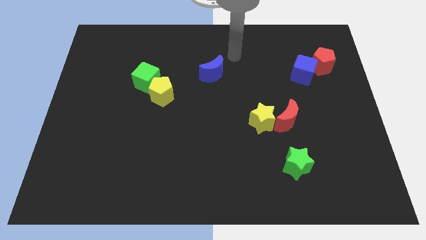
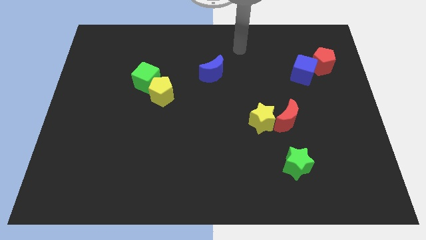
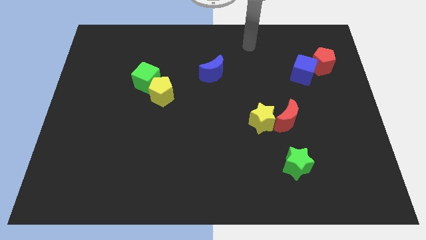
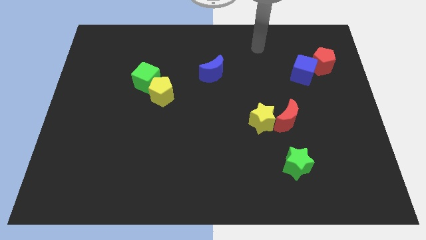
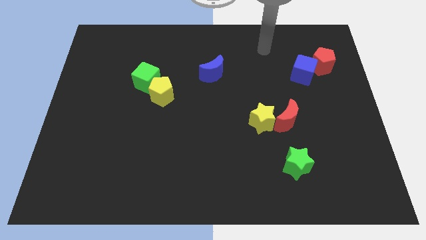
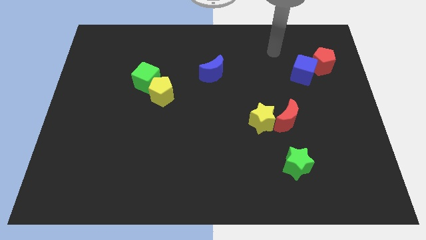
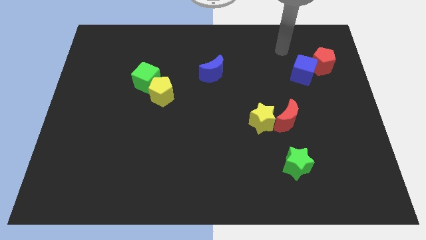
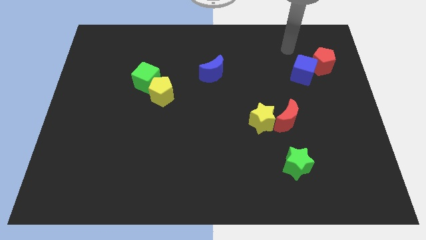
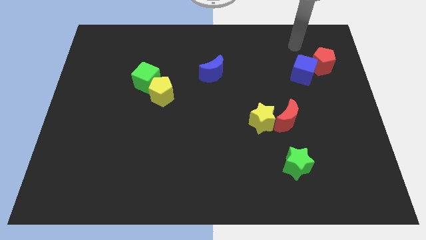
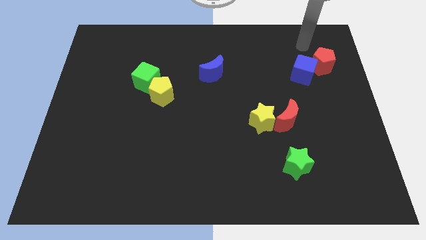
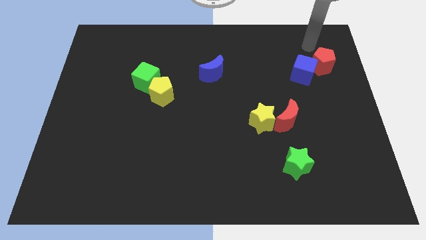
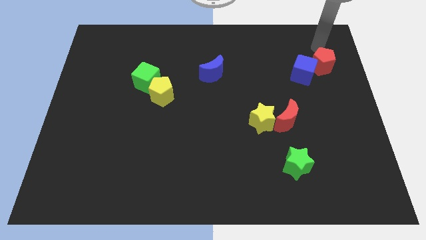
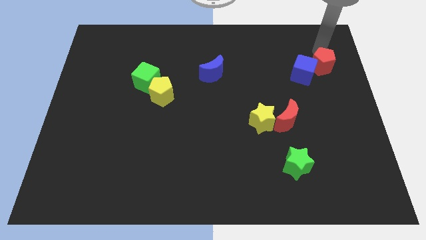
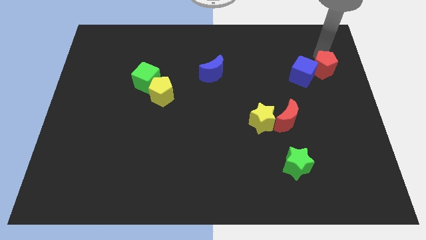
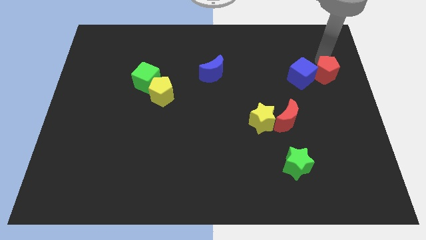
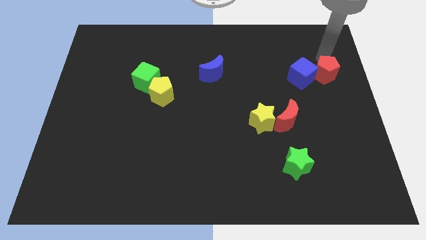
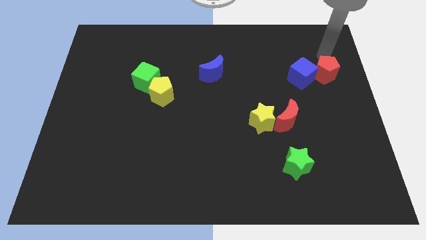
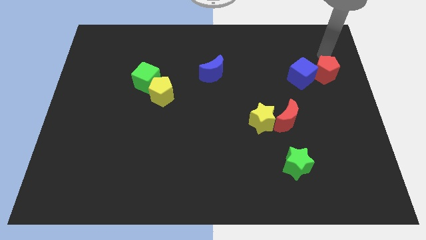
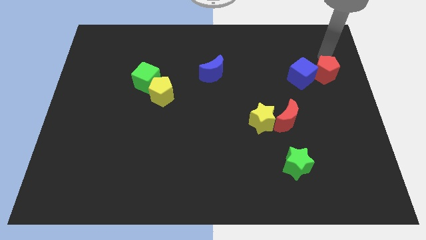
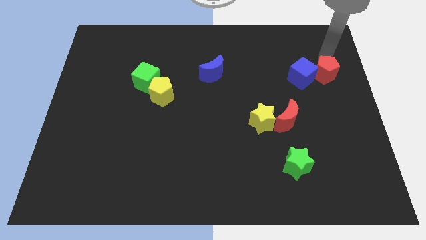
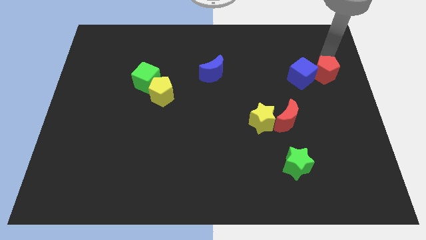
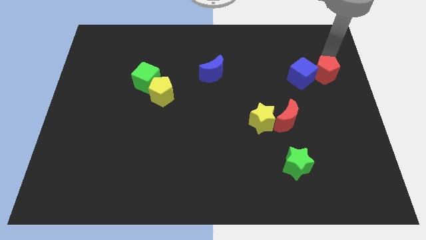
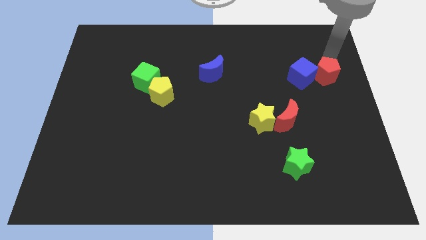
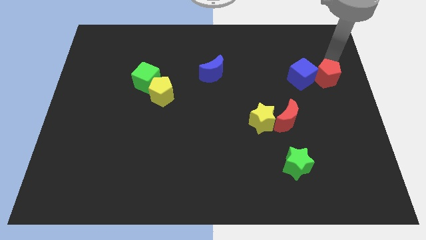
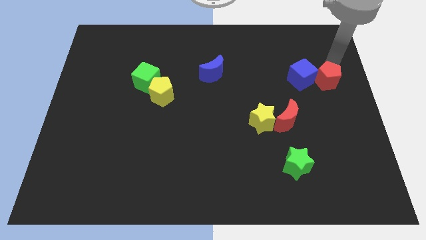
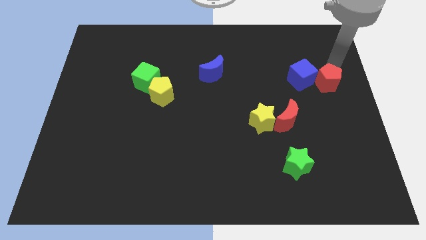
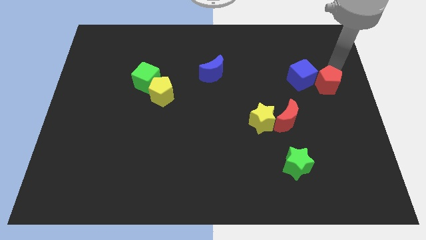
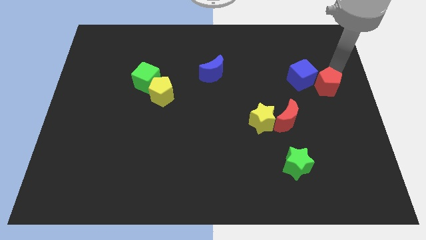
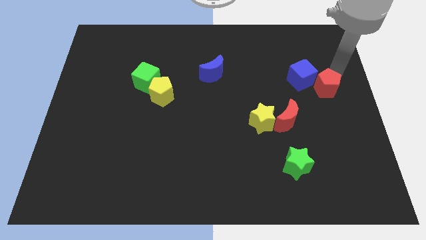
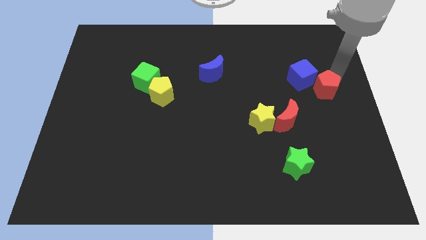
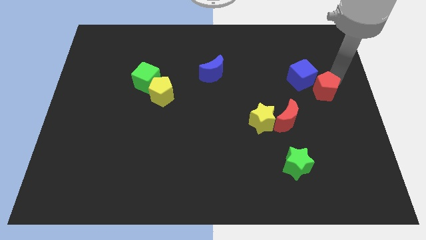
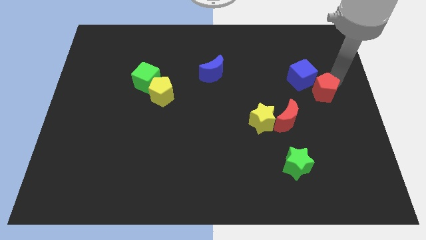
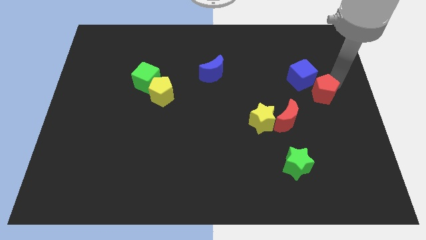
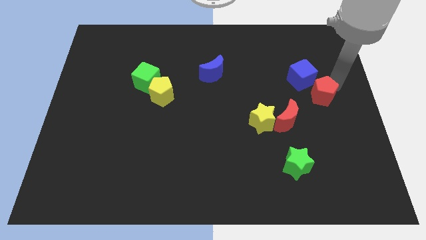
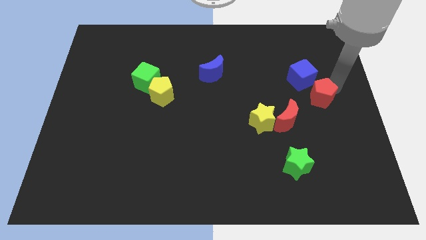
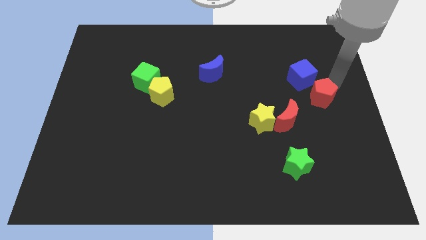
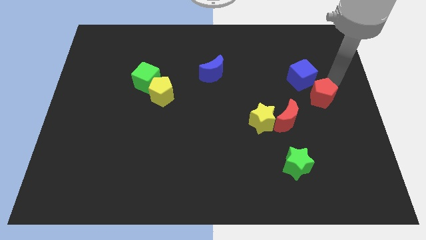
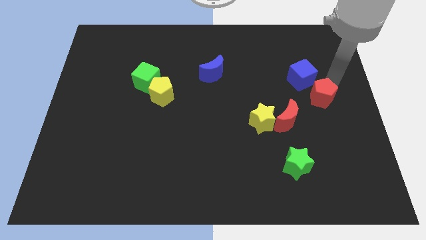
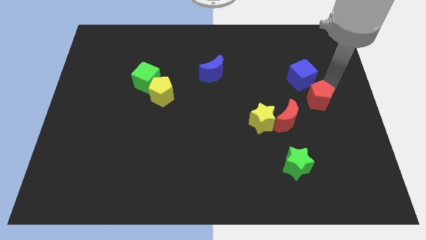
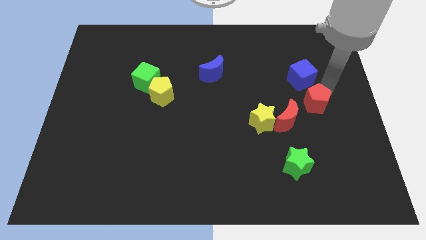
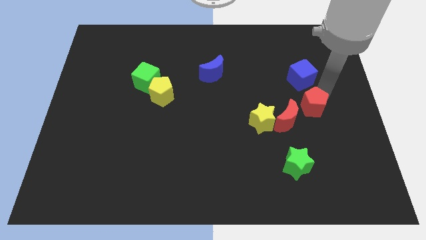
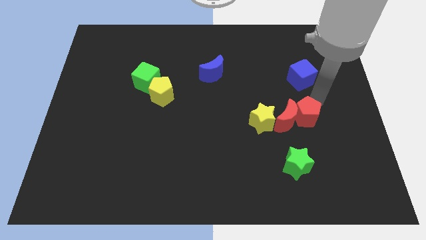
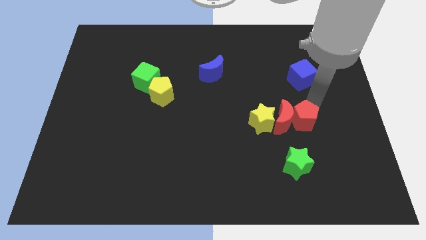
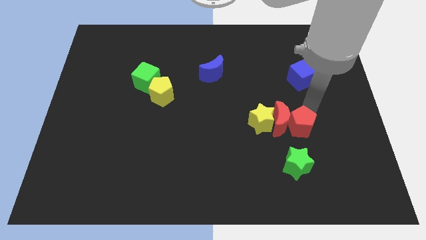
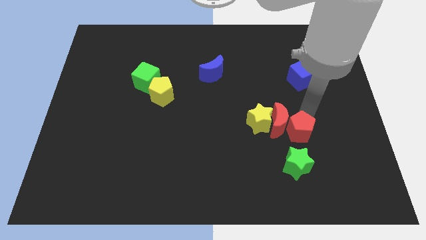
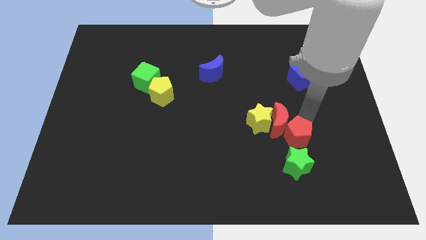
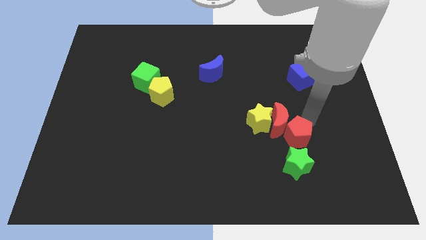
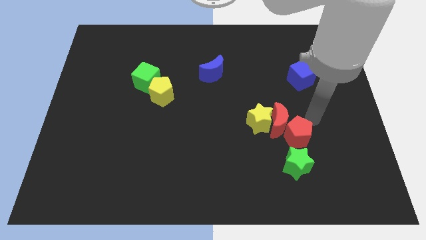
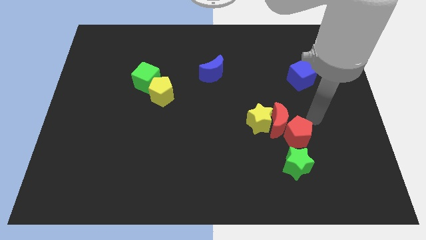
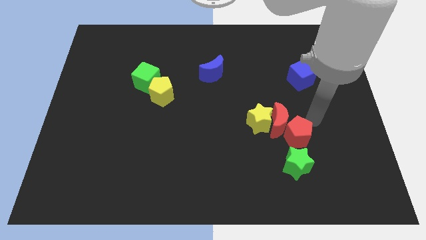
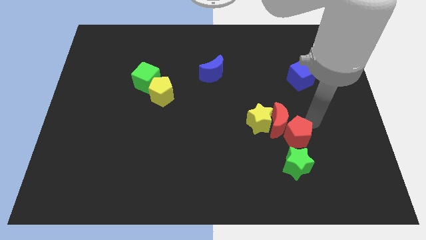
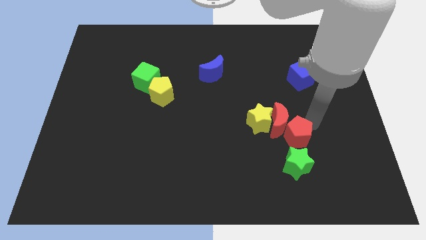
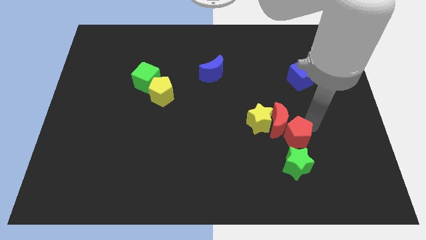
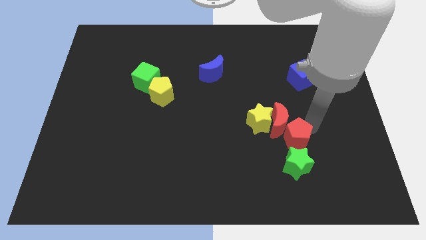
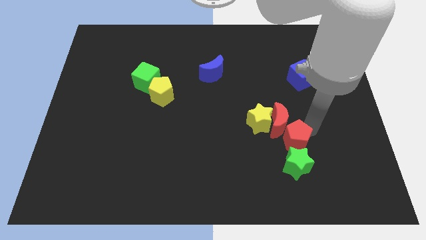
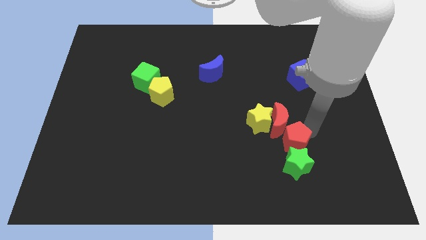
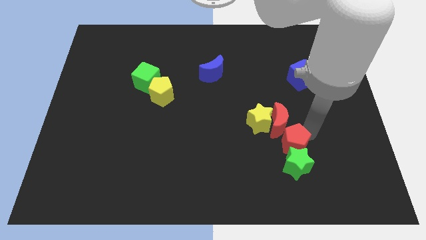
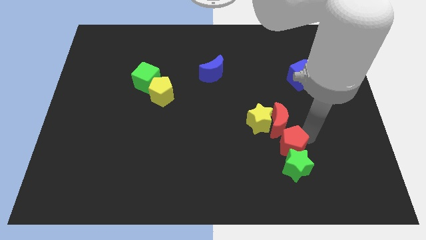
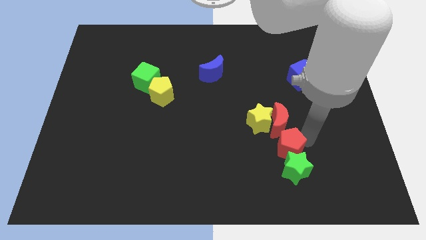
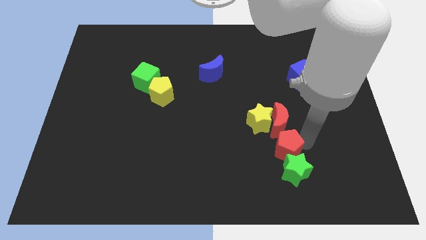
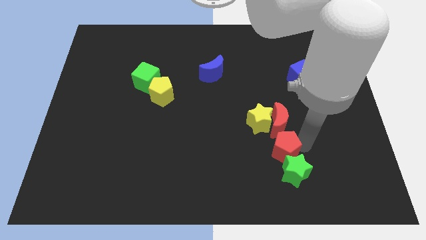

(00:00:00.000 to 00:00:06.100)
push the red pentagon to the bottom side of the yellow star

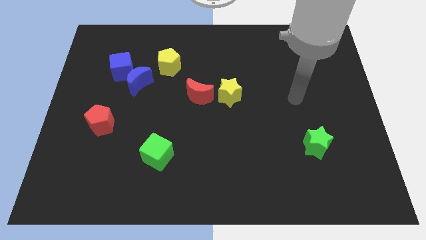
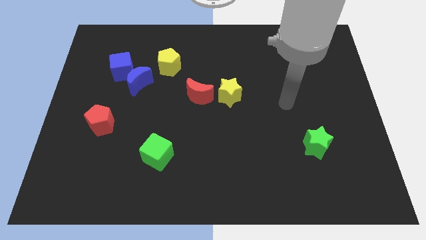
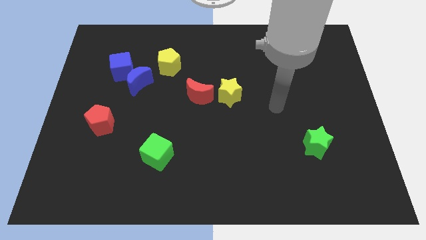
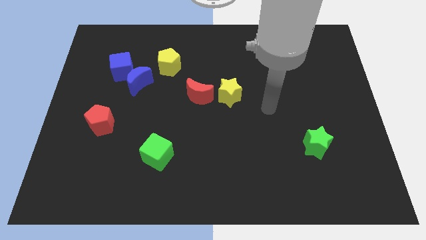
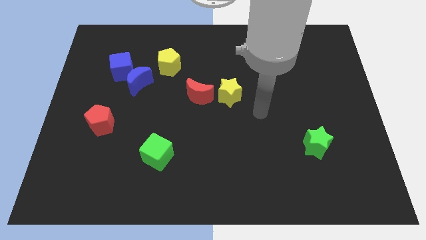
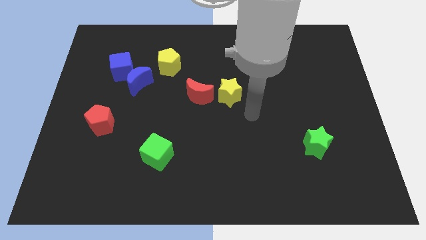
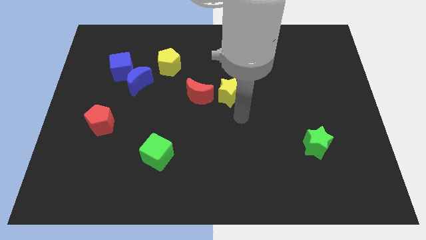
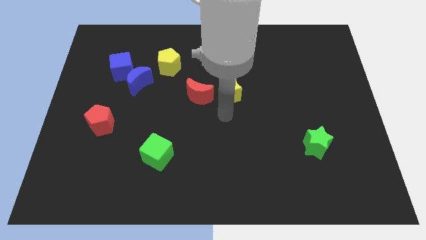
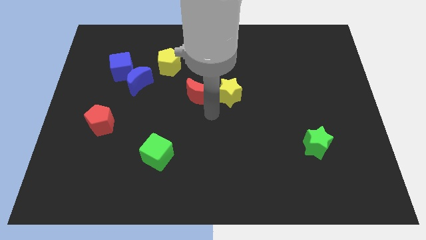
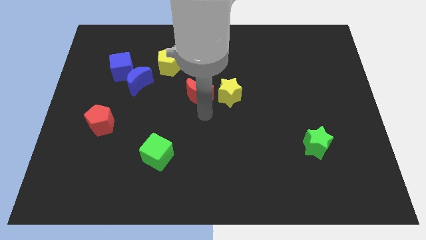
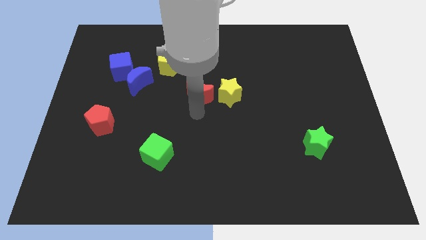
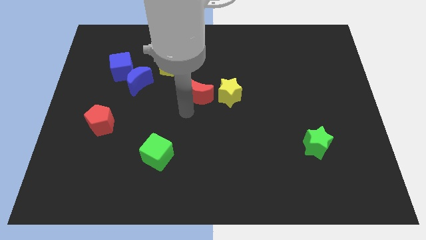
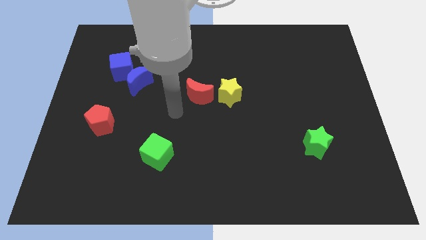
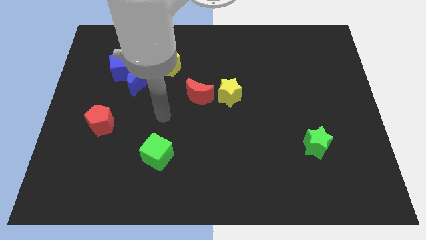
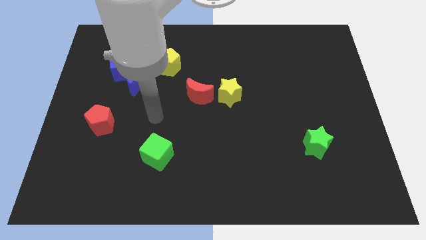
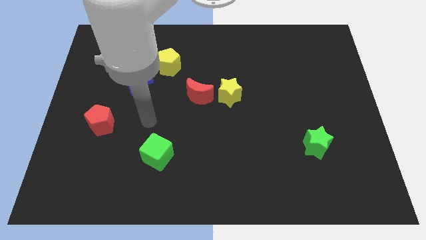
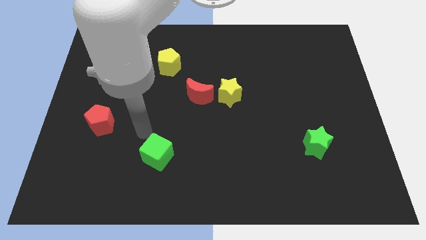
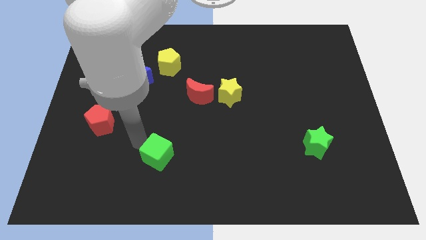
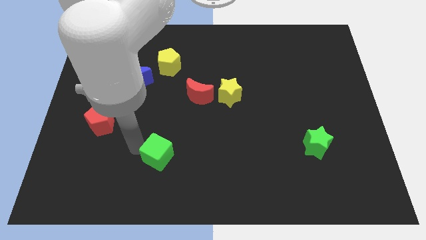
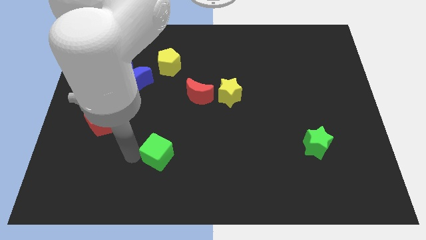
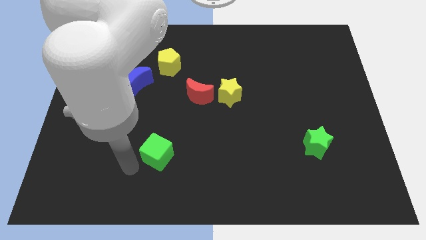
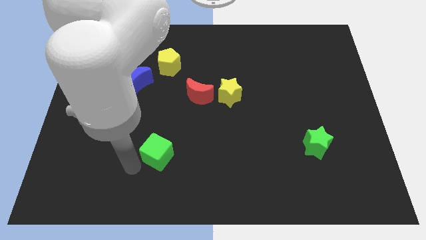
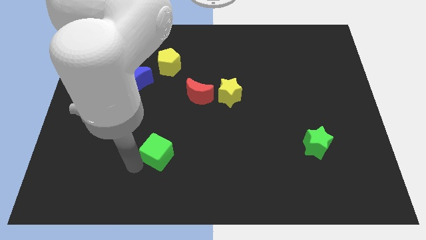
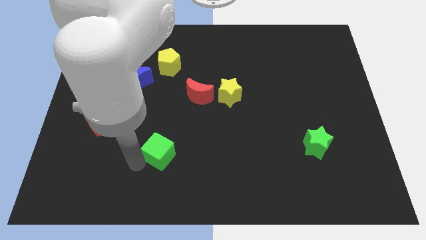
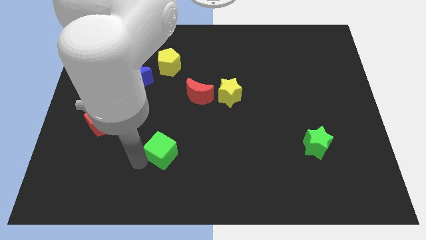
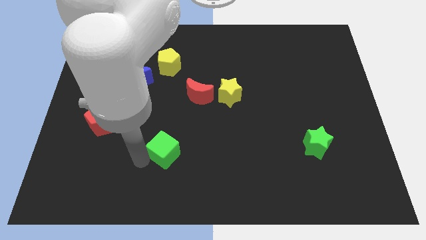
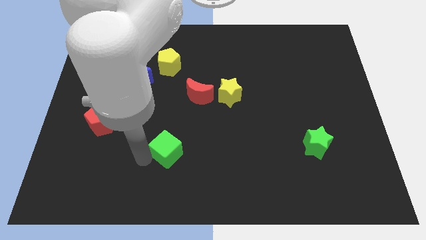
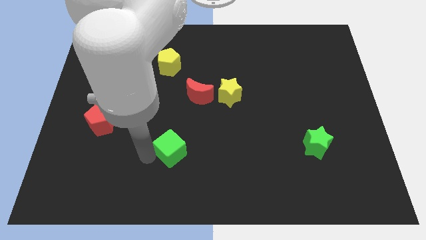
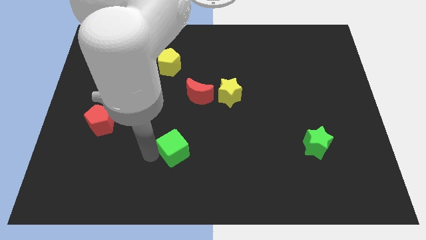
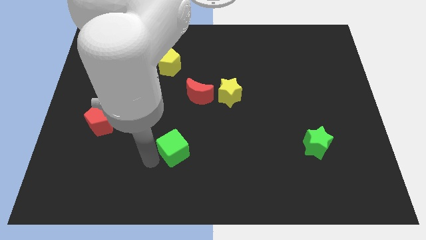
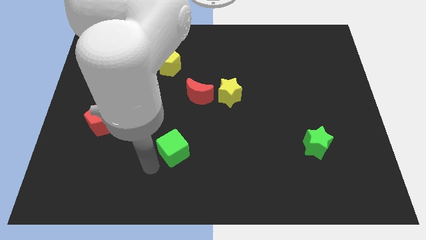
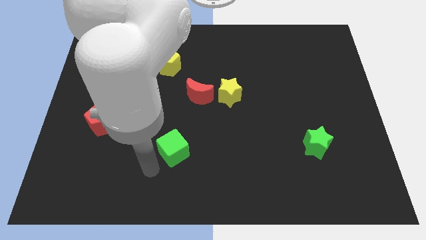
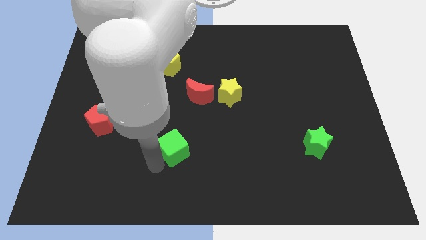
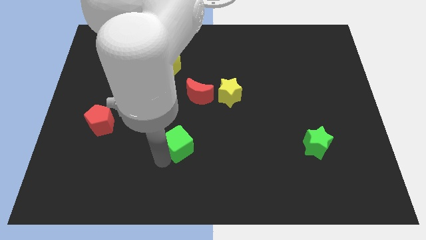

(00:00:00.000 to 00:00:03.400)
move the green cube below the red moon
